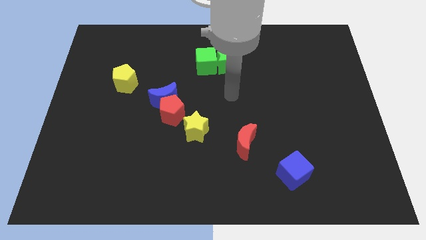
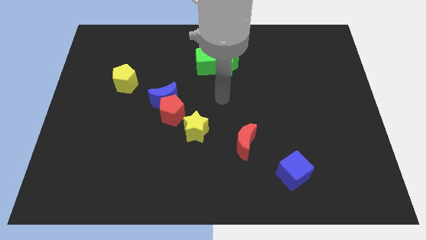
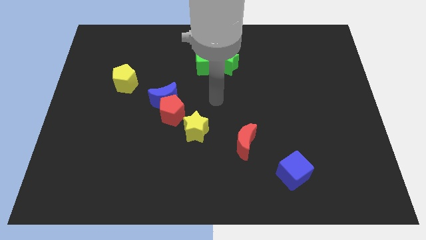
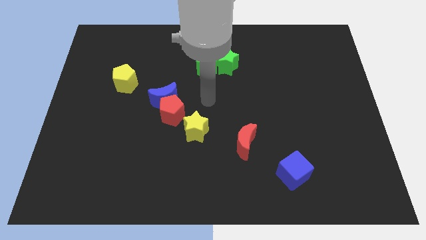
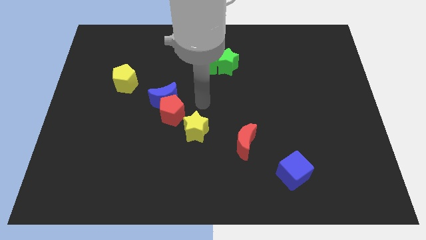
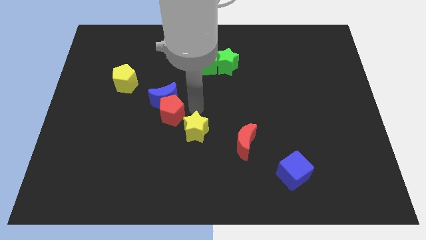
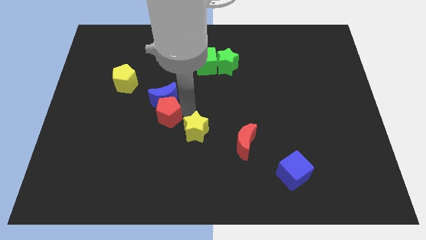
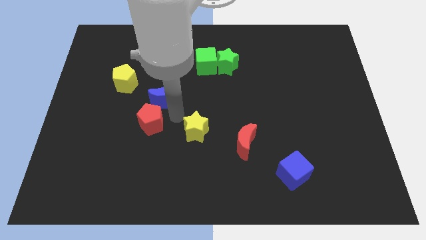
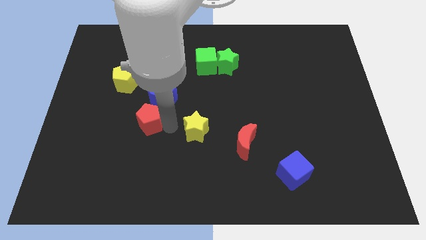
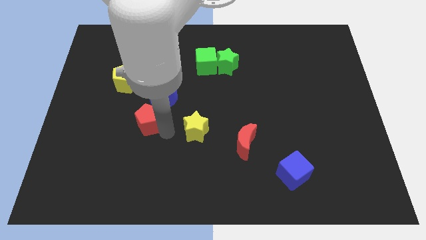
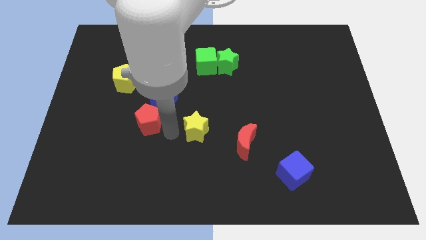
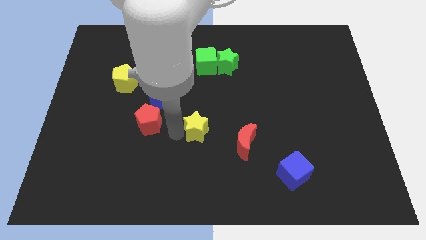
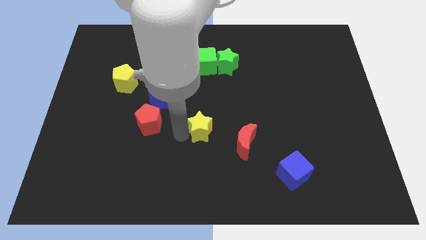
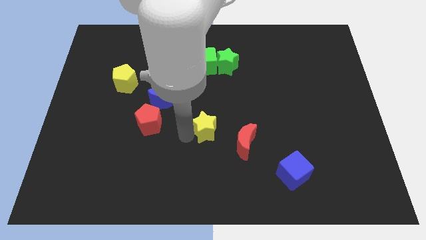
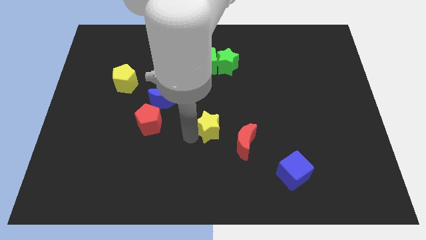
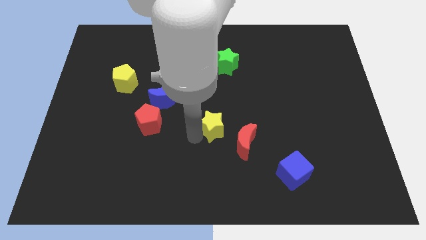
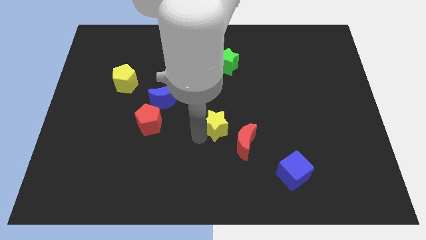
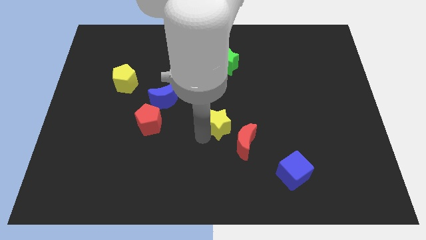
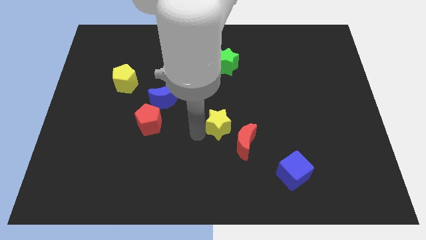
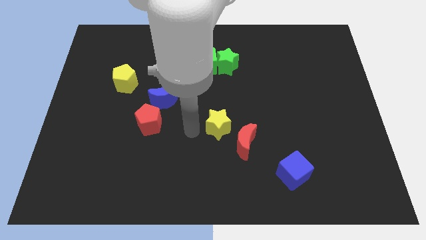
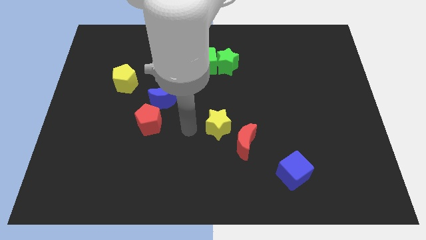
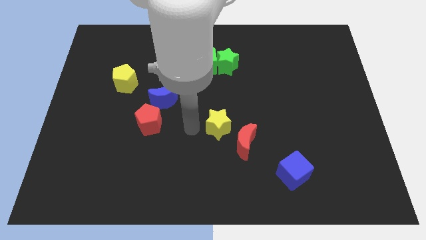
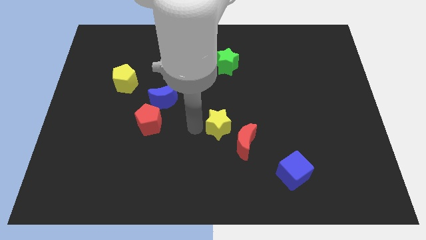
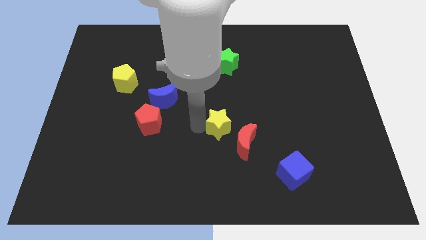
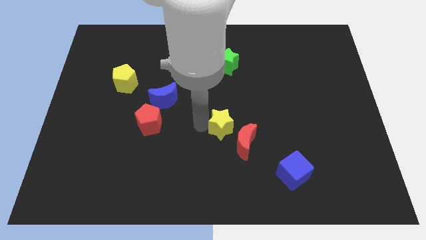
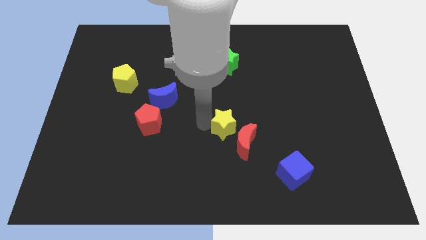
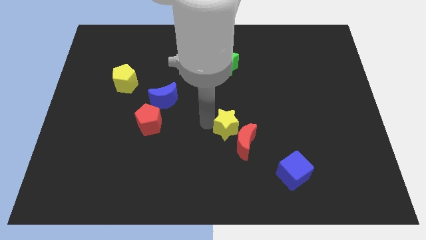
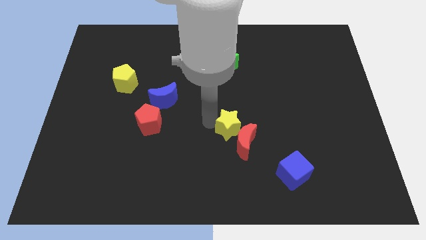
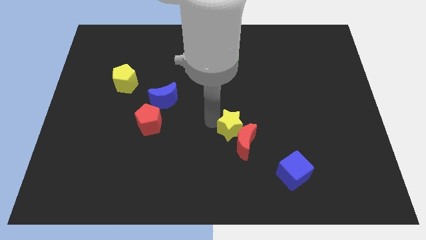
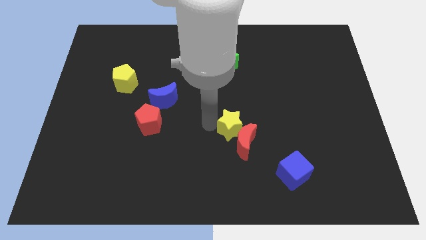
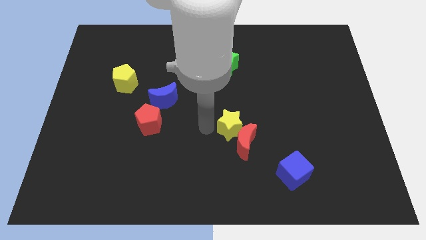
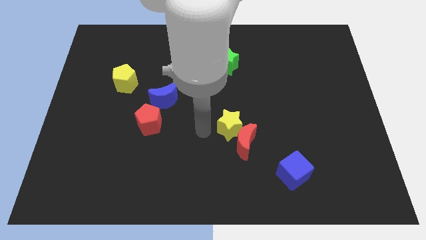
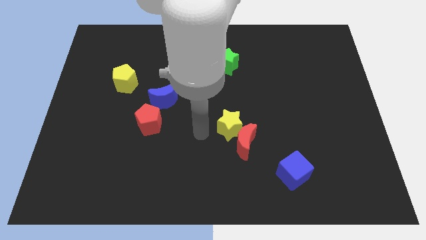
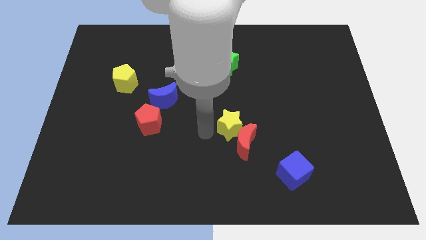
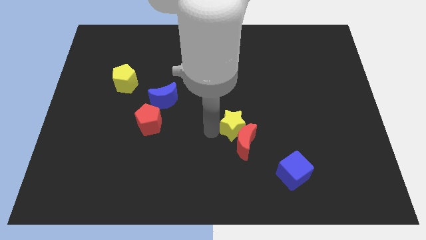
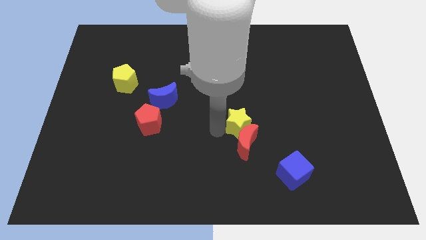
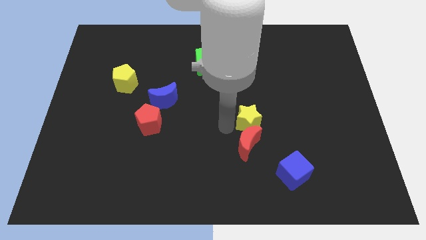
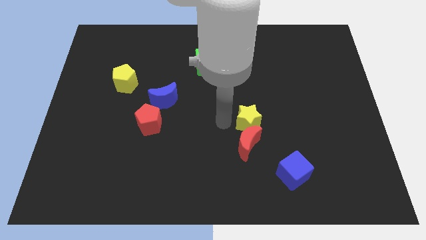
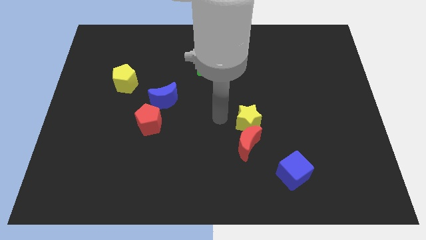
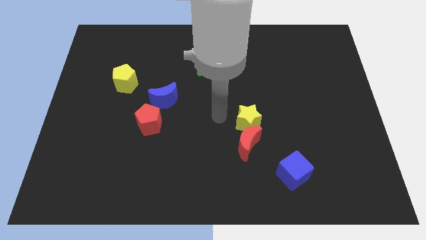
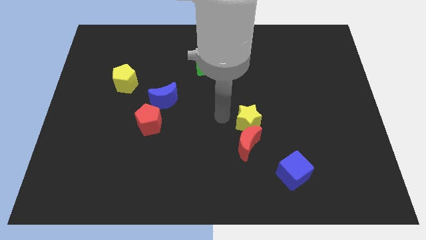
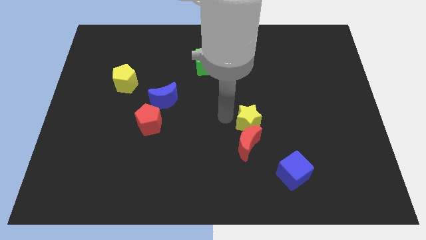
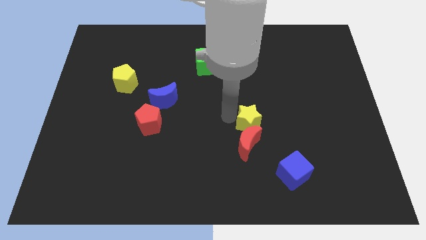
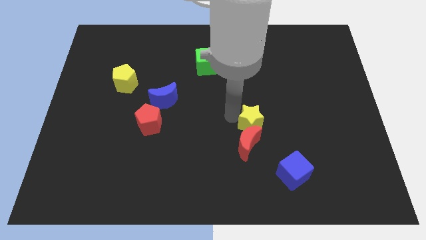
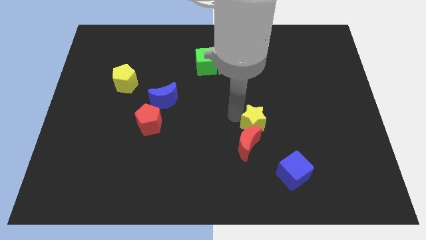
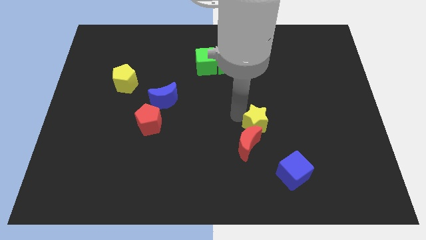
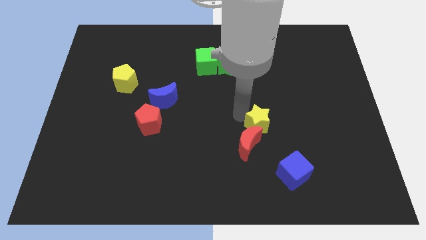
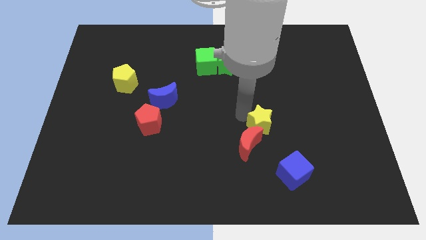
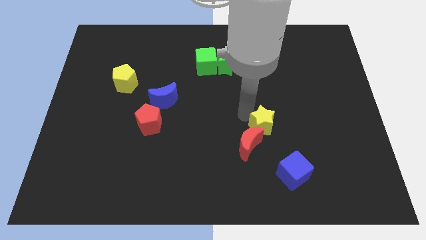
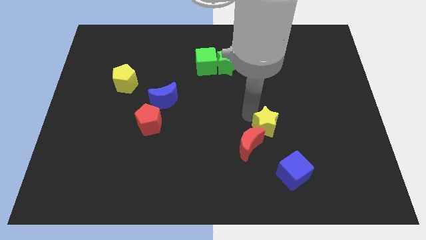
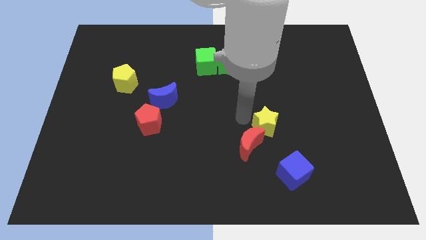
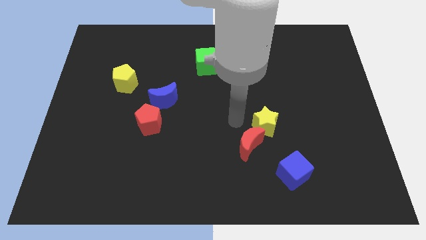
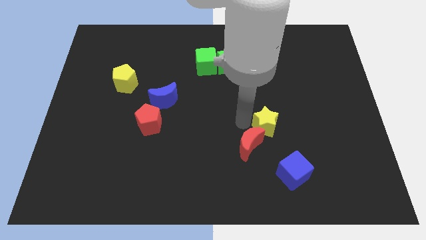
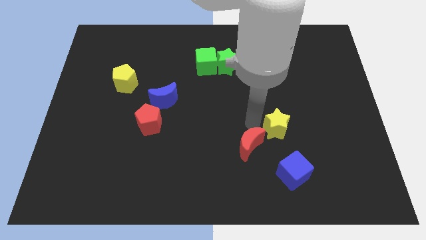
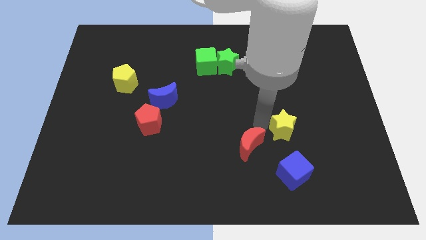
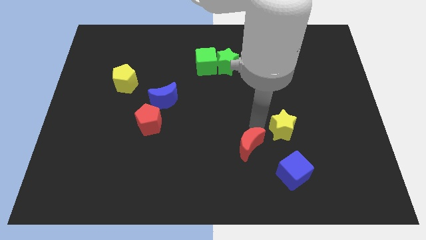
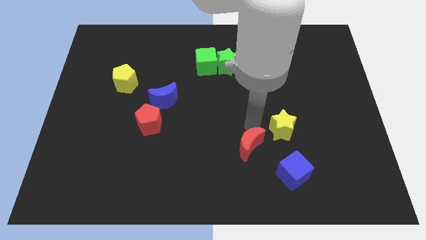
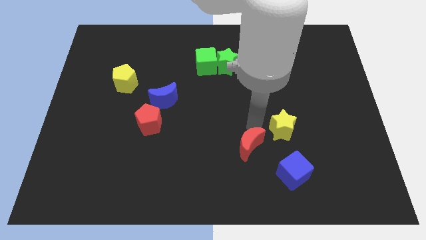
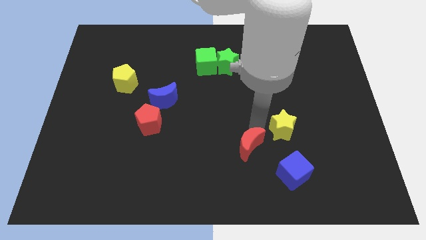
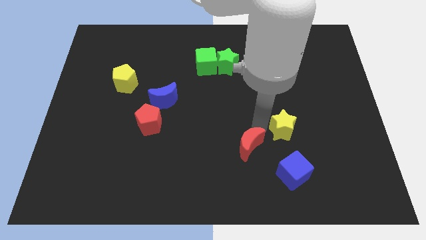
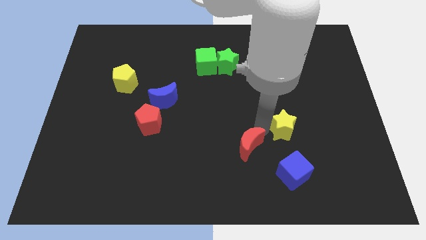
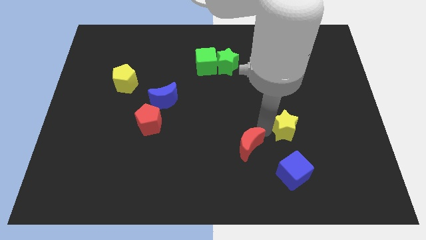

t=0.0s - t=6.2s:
move the yellow star to the right

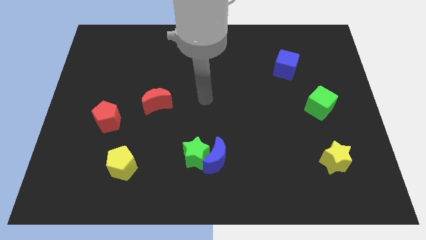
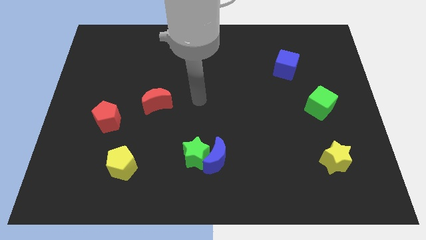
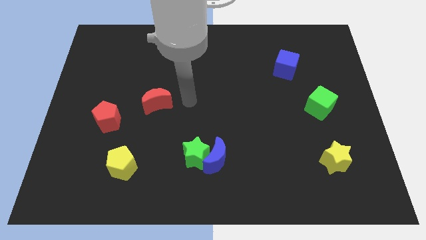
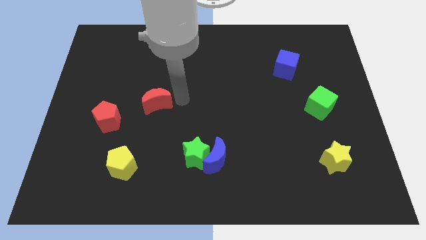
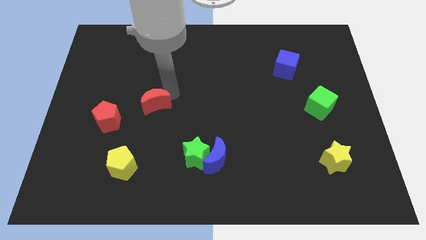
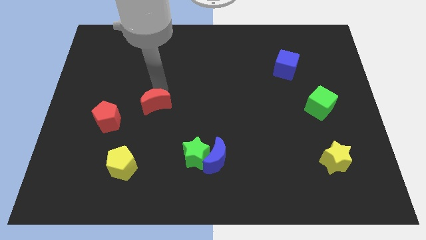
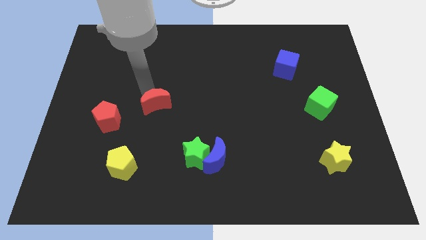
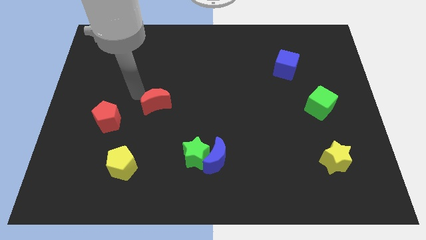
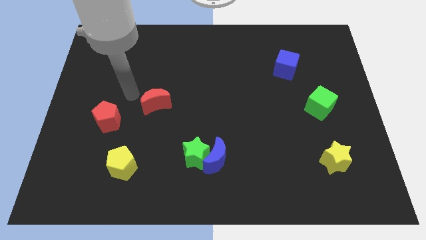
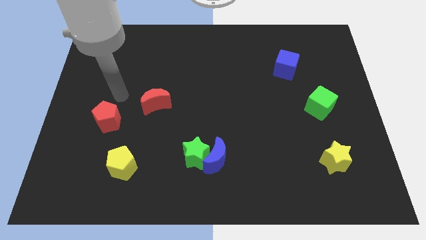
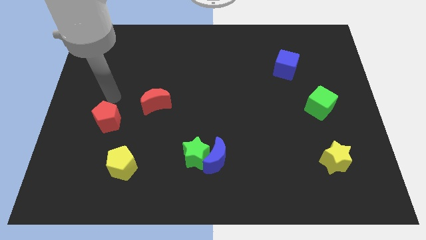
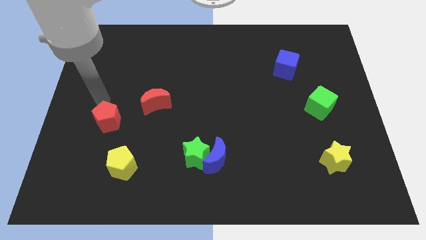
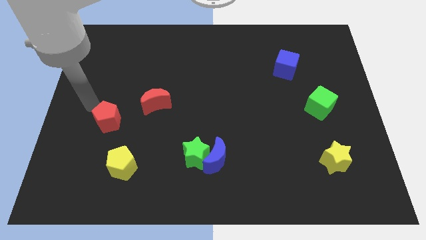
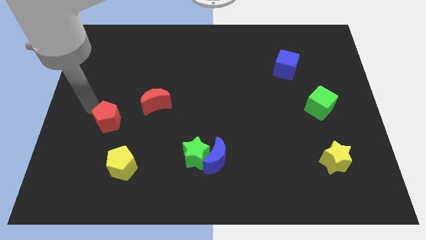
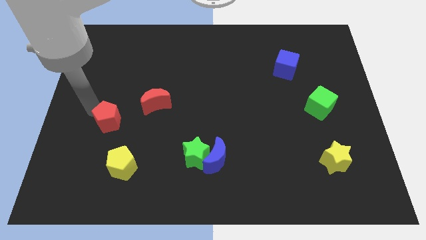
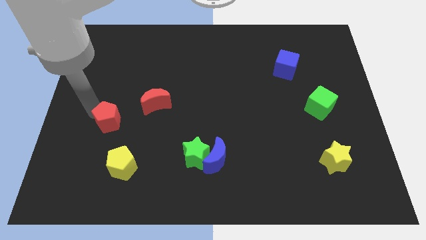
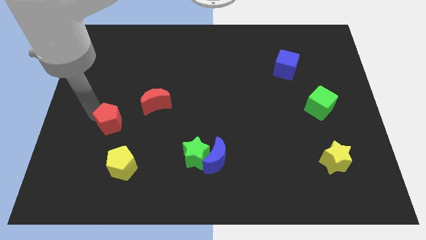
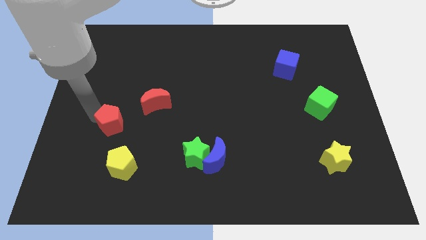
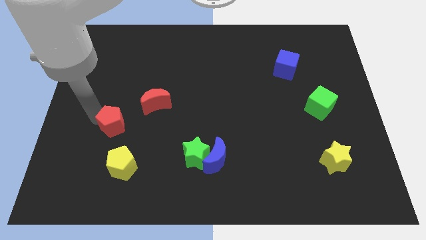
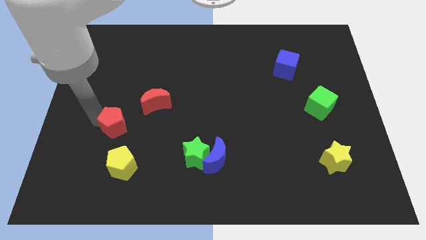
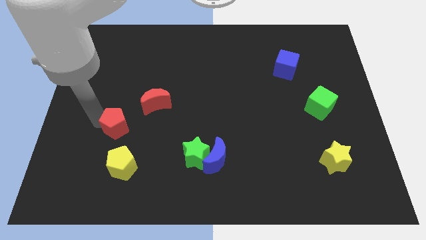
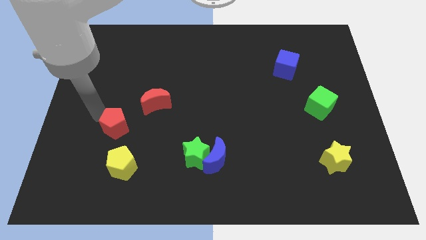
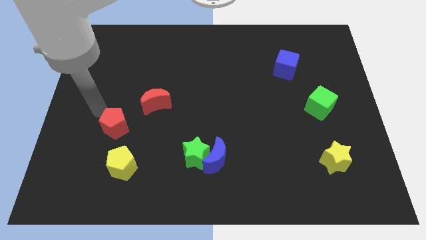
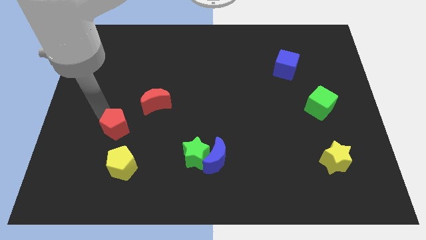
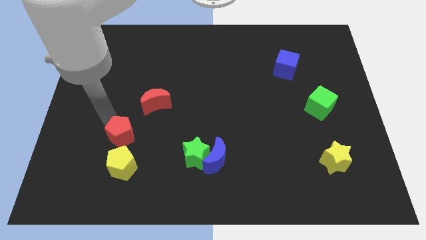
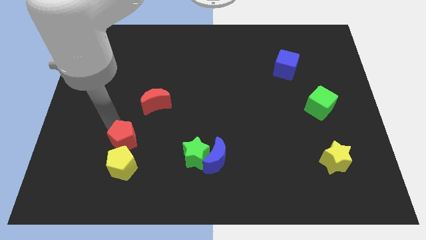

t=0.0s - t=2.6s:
push the red pentagon down and to the right a little
